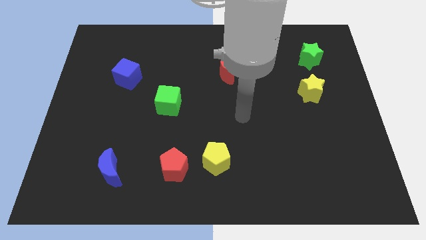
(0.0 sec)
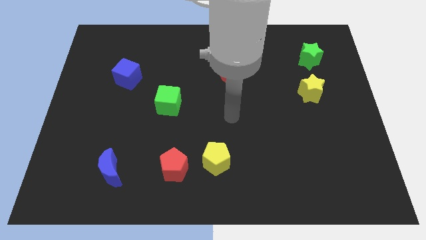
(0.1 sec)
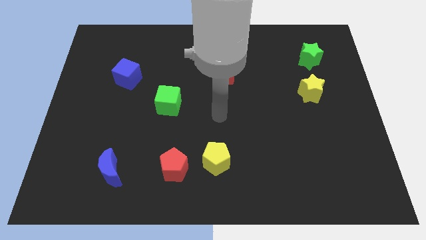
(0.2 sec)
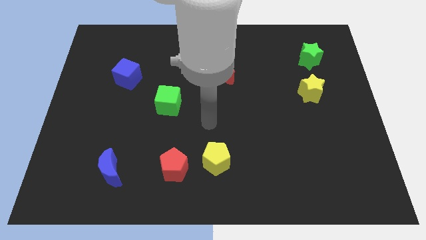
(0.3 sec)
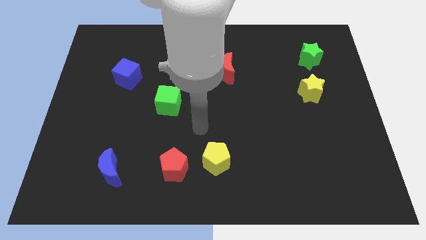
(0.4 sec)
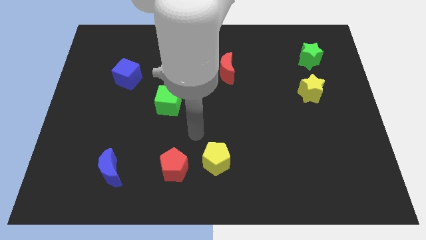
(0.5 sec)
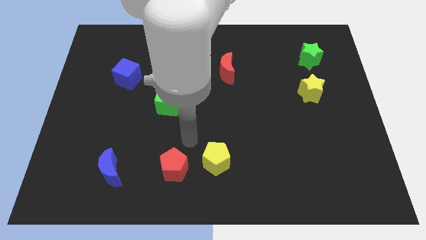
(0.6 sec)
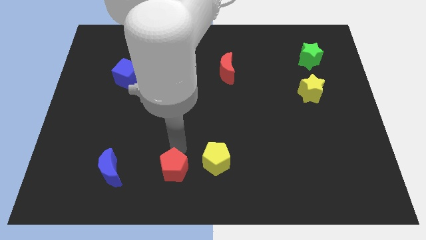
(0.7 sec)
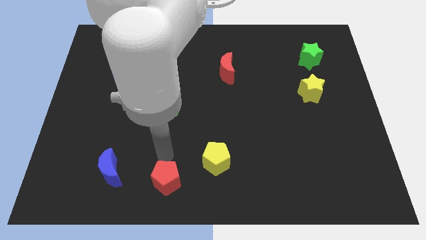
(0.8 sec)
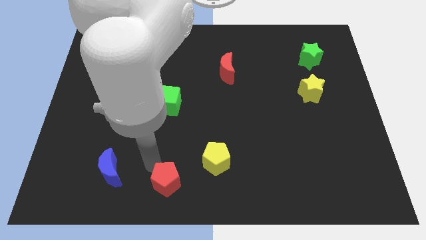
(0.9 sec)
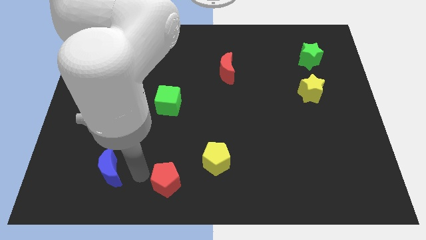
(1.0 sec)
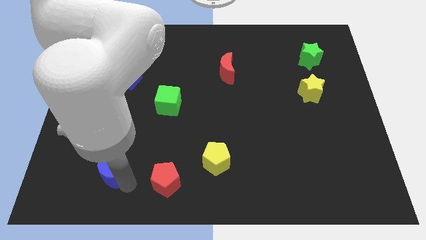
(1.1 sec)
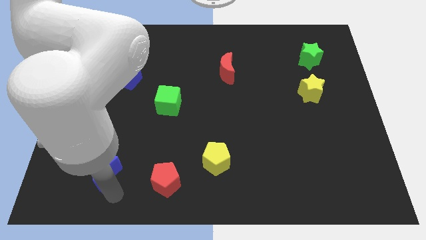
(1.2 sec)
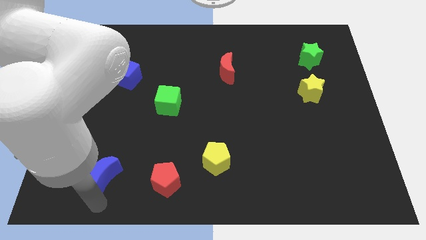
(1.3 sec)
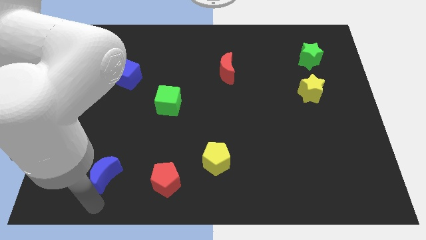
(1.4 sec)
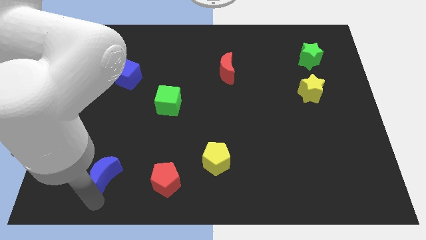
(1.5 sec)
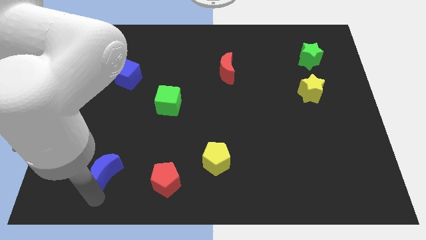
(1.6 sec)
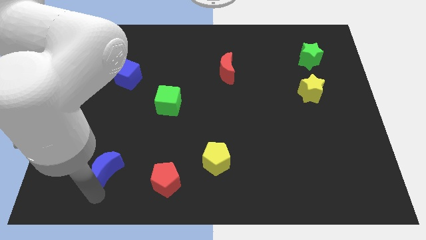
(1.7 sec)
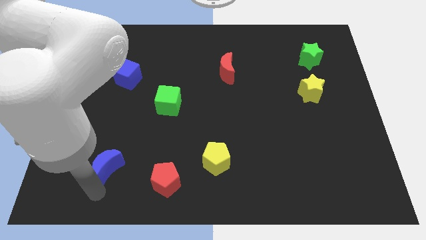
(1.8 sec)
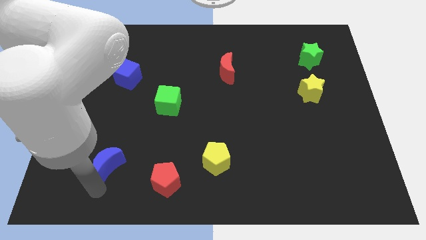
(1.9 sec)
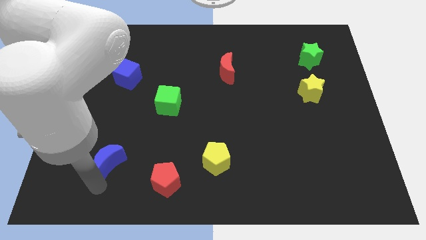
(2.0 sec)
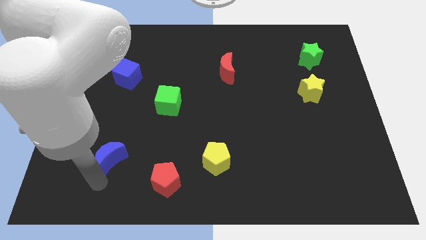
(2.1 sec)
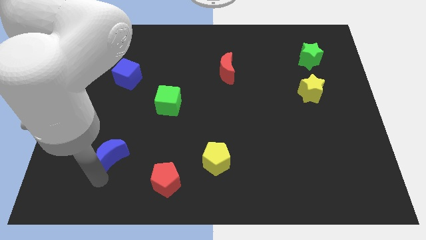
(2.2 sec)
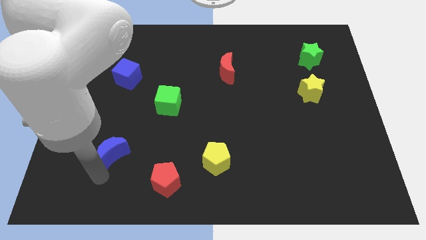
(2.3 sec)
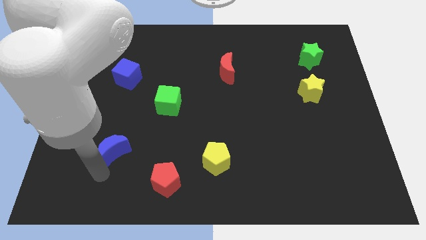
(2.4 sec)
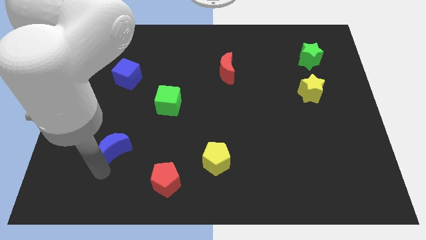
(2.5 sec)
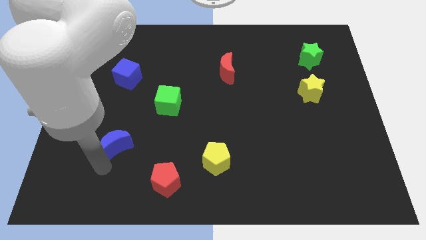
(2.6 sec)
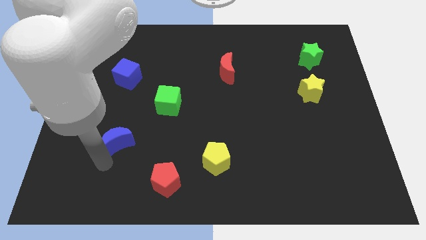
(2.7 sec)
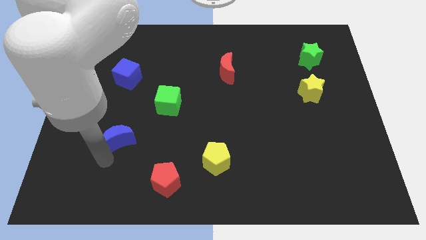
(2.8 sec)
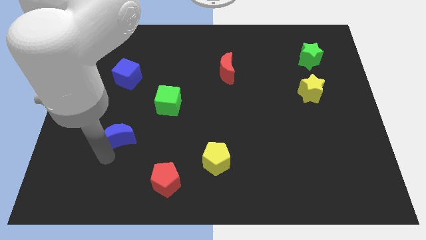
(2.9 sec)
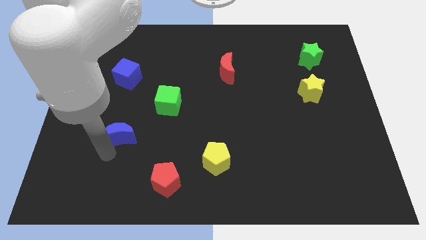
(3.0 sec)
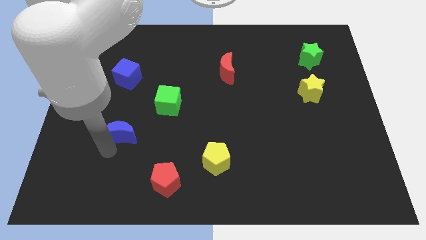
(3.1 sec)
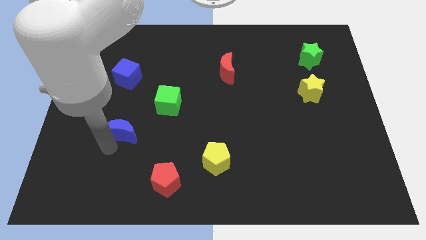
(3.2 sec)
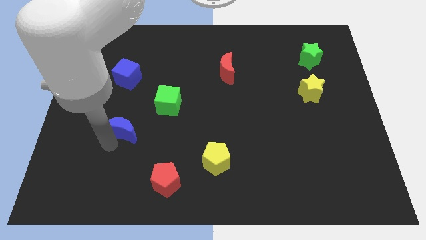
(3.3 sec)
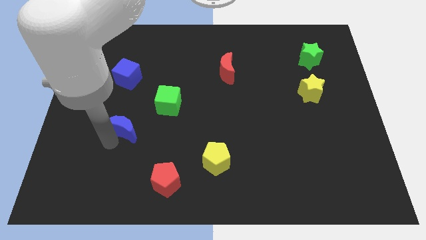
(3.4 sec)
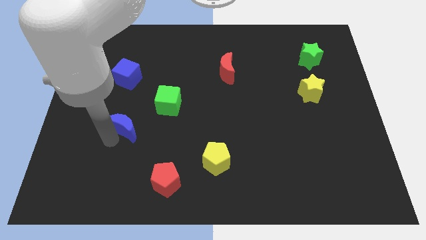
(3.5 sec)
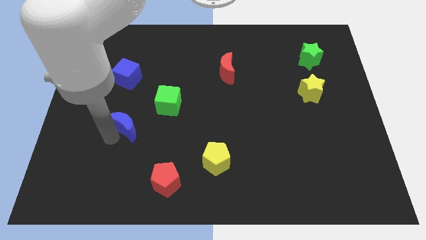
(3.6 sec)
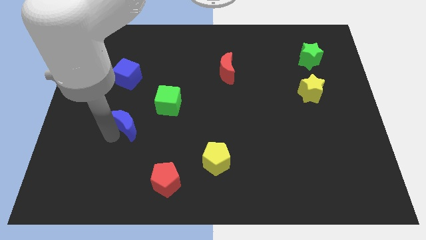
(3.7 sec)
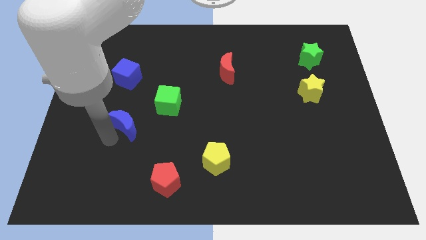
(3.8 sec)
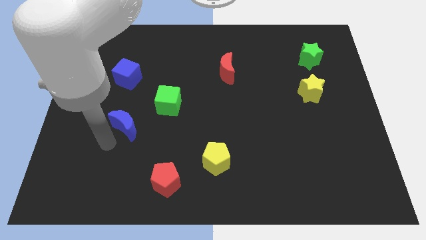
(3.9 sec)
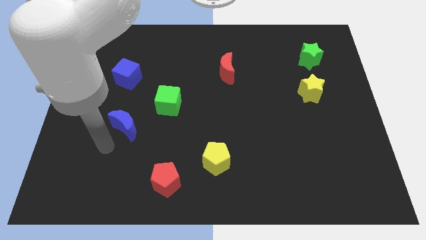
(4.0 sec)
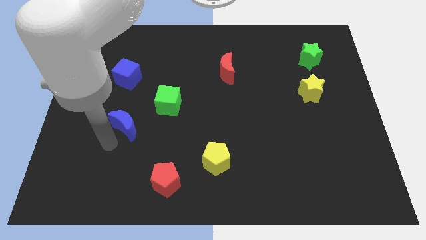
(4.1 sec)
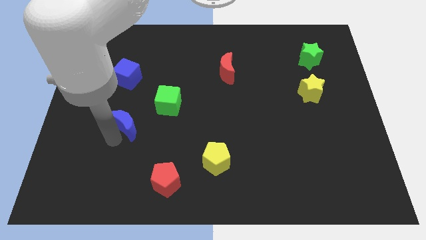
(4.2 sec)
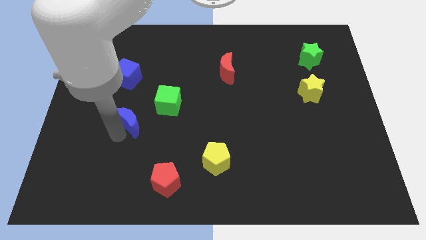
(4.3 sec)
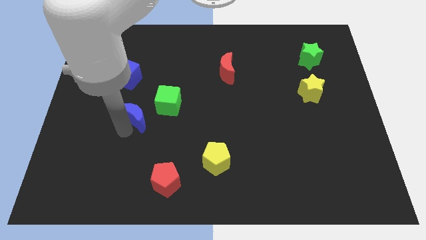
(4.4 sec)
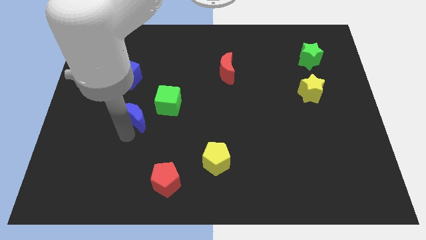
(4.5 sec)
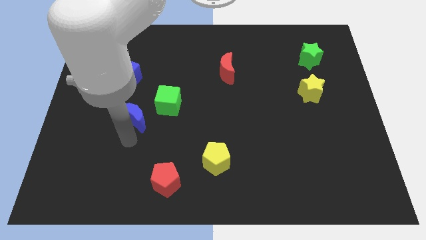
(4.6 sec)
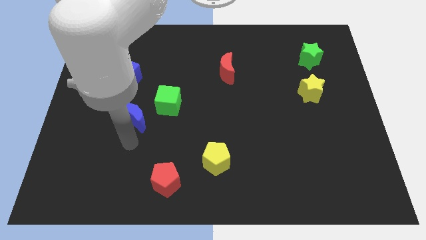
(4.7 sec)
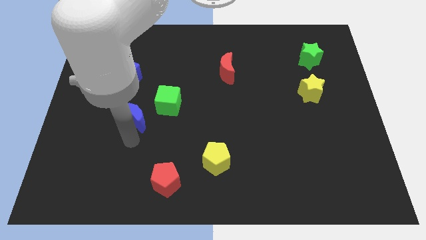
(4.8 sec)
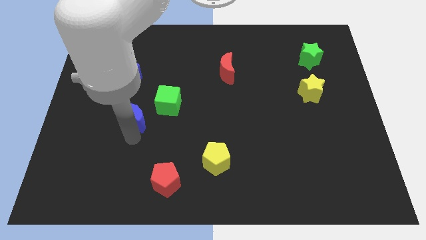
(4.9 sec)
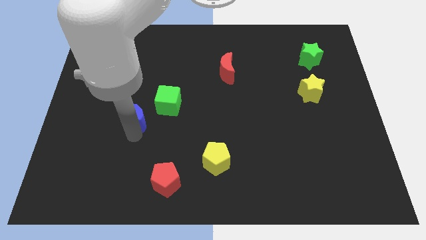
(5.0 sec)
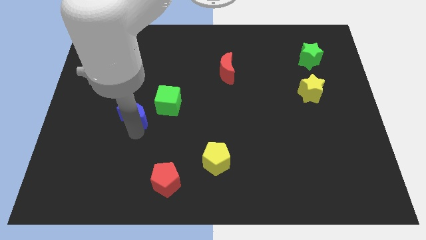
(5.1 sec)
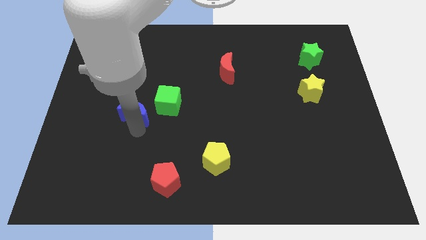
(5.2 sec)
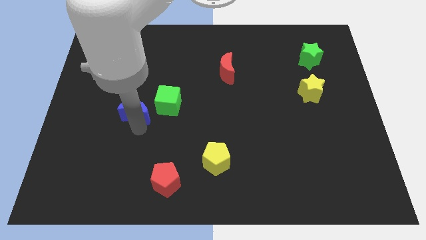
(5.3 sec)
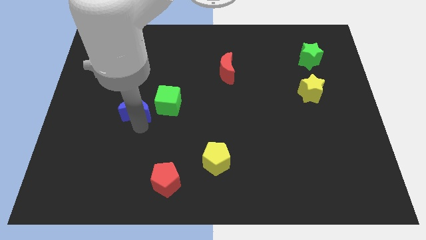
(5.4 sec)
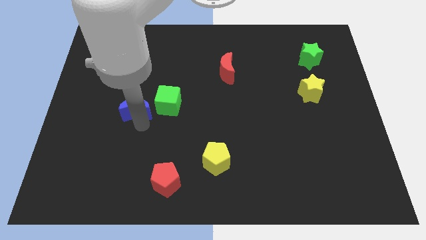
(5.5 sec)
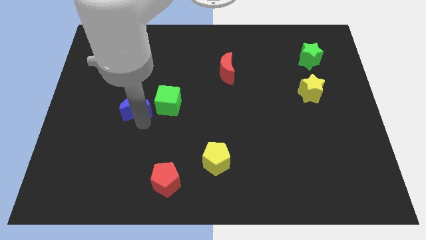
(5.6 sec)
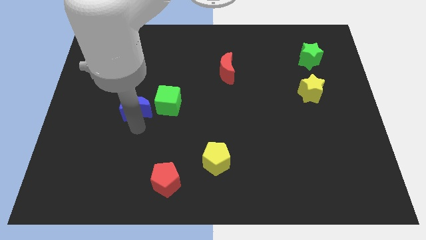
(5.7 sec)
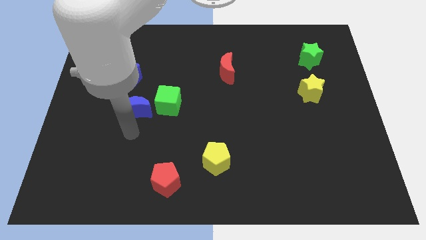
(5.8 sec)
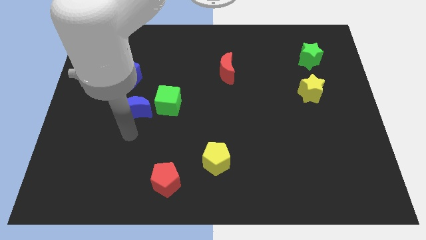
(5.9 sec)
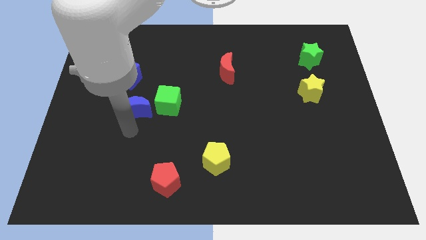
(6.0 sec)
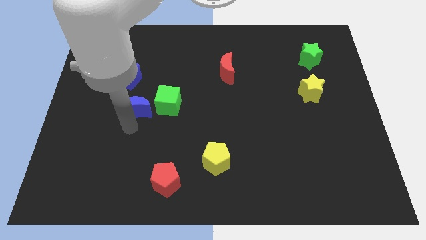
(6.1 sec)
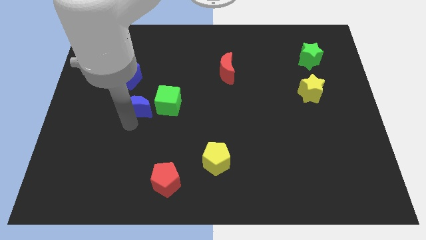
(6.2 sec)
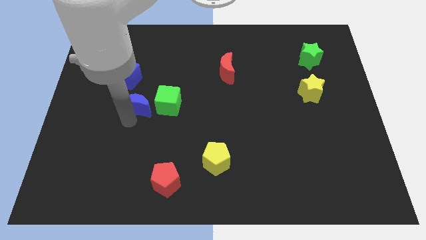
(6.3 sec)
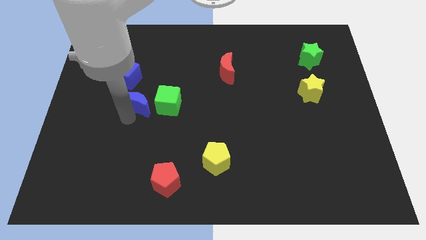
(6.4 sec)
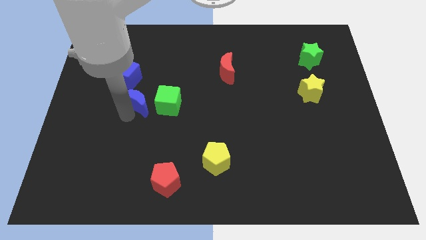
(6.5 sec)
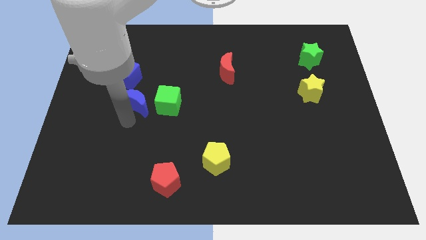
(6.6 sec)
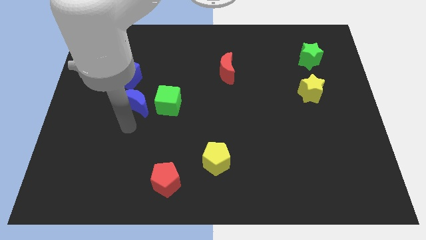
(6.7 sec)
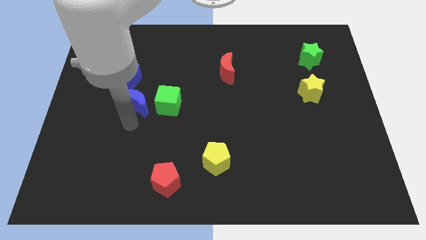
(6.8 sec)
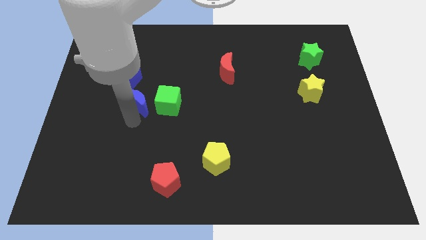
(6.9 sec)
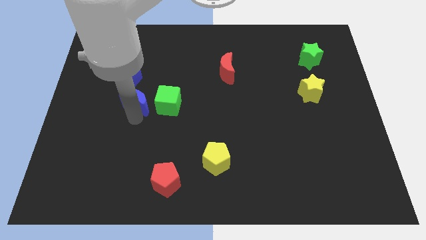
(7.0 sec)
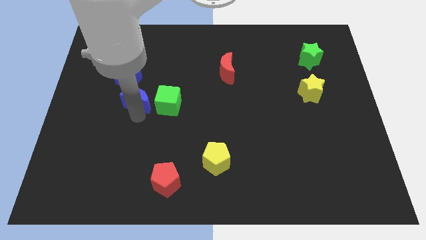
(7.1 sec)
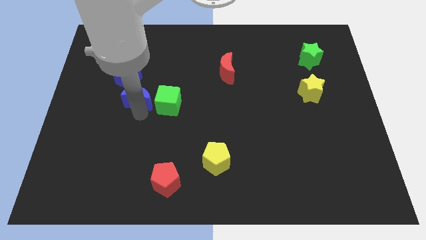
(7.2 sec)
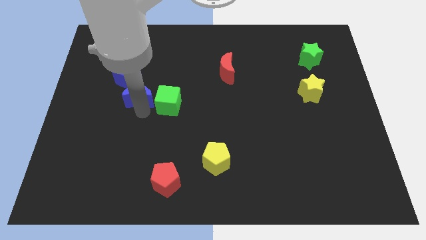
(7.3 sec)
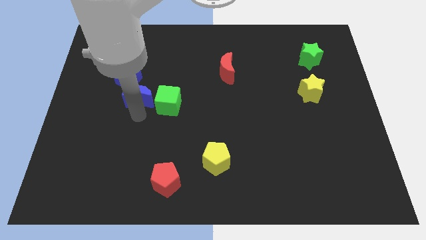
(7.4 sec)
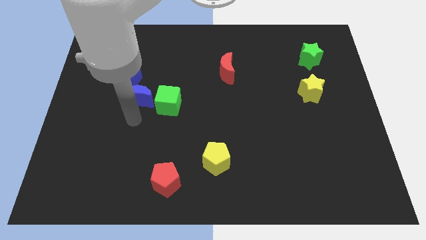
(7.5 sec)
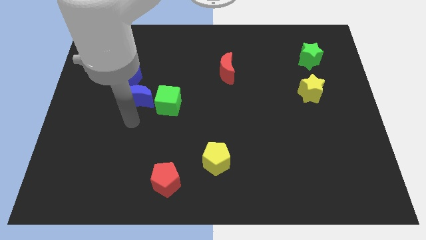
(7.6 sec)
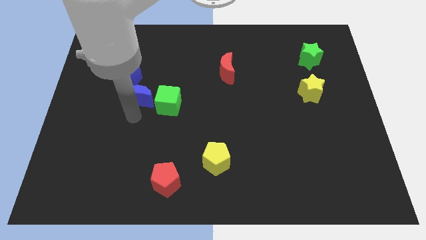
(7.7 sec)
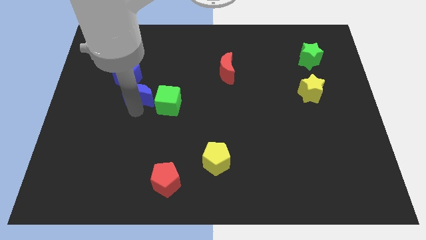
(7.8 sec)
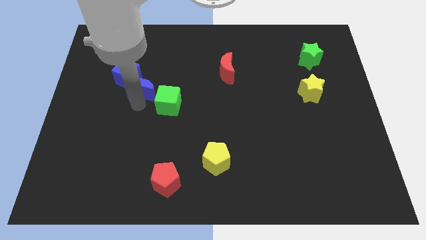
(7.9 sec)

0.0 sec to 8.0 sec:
push the blue moon up
